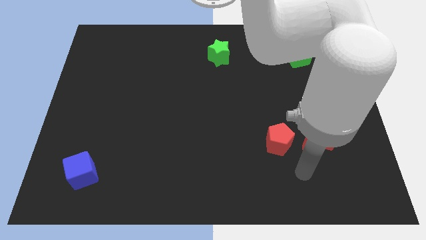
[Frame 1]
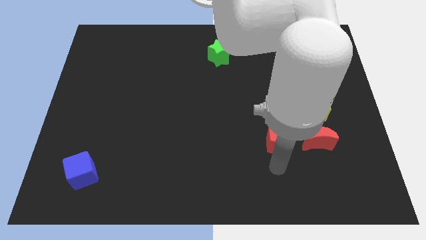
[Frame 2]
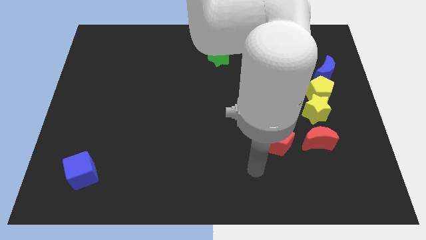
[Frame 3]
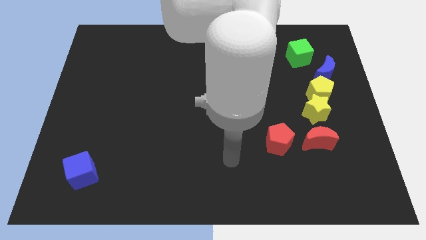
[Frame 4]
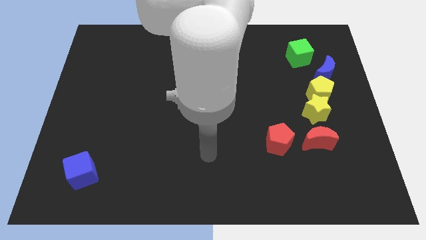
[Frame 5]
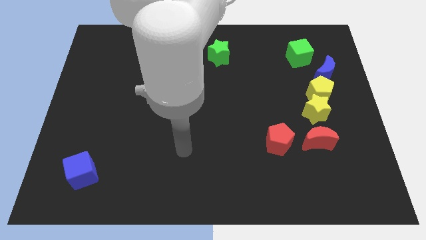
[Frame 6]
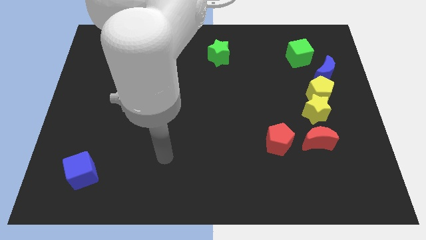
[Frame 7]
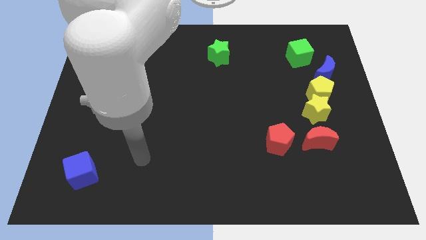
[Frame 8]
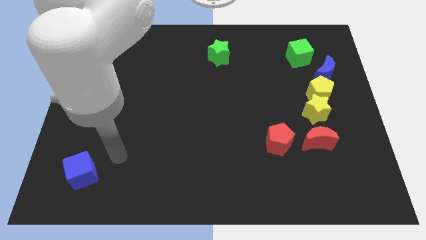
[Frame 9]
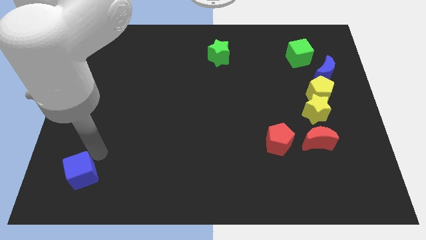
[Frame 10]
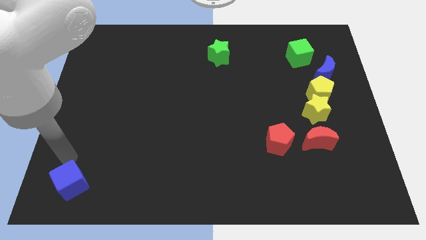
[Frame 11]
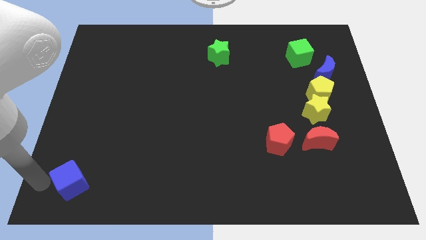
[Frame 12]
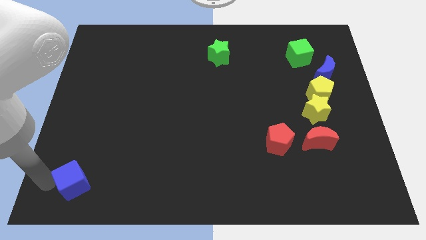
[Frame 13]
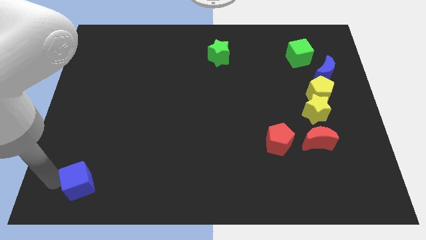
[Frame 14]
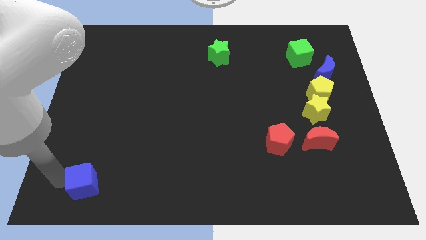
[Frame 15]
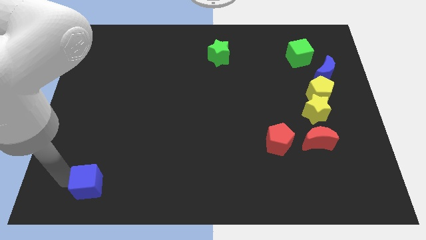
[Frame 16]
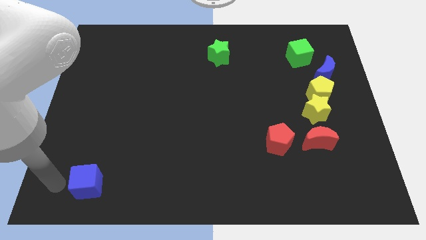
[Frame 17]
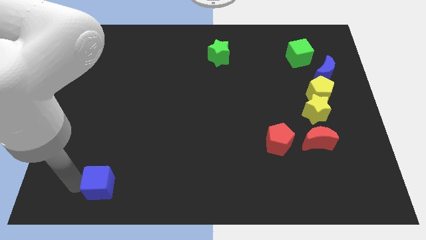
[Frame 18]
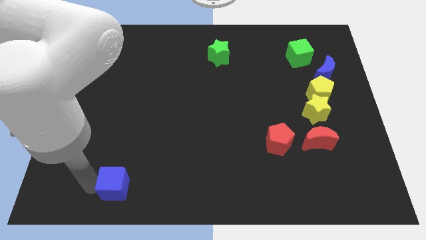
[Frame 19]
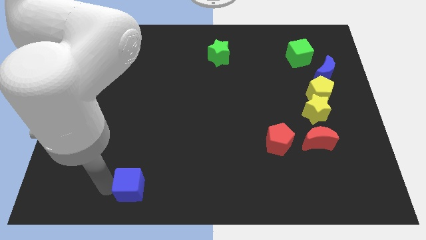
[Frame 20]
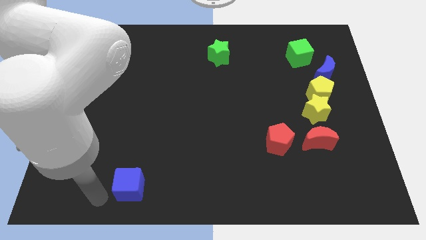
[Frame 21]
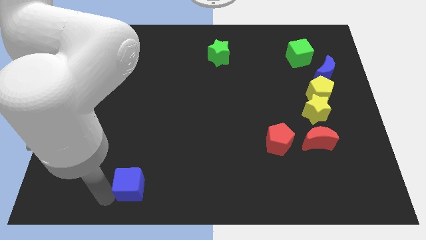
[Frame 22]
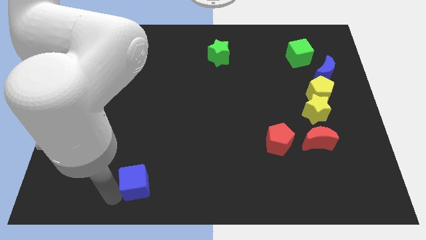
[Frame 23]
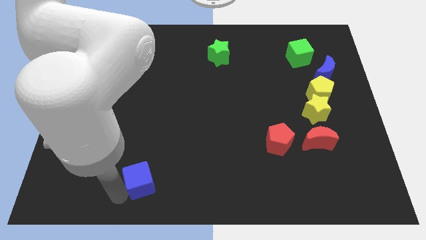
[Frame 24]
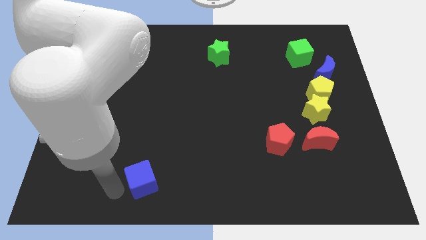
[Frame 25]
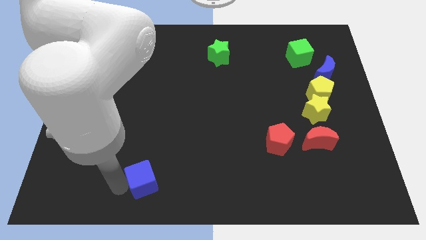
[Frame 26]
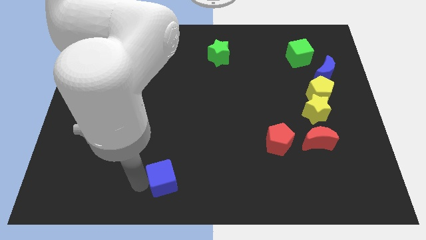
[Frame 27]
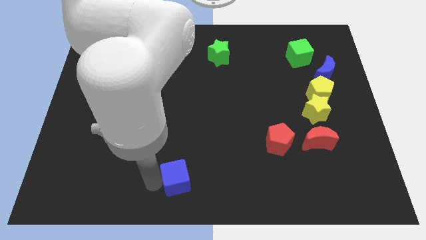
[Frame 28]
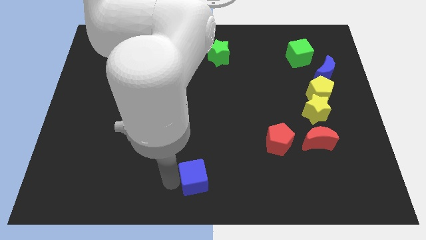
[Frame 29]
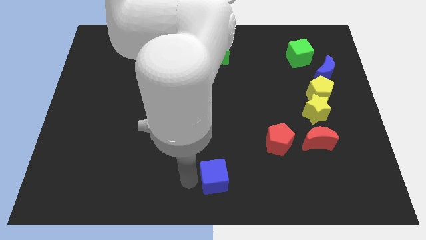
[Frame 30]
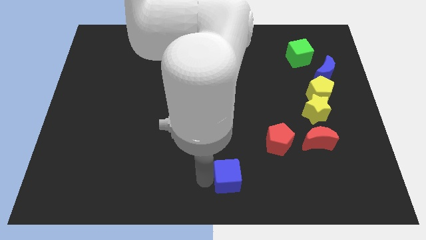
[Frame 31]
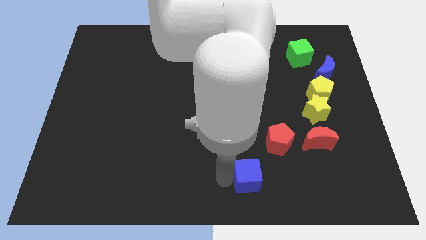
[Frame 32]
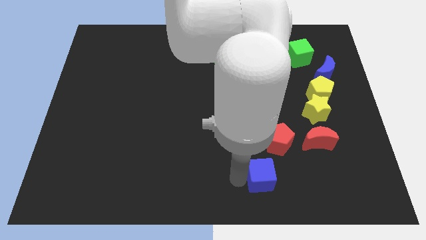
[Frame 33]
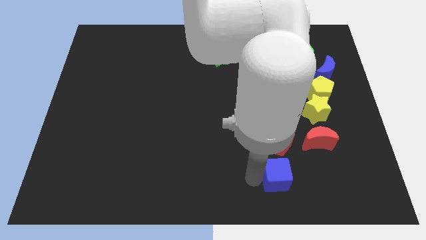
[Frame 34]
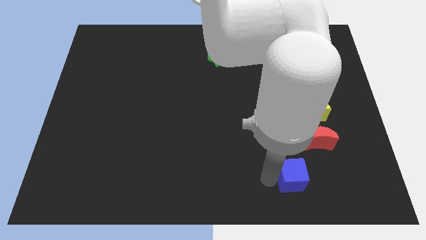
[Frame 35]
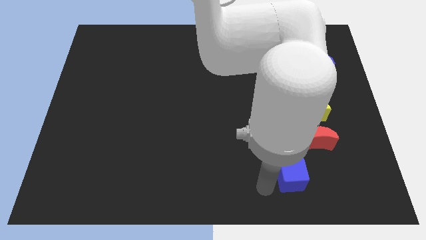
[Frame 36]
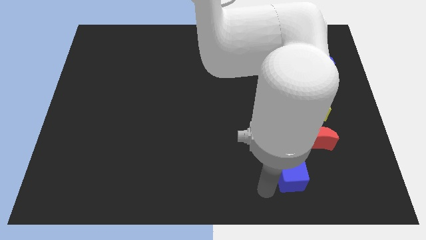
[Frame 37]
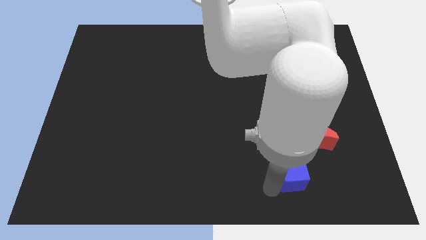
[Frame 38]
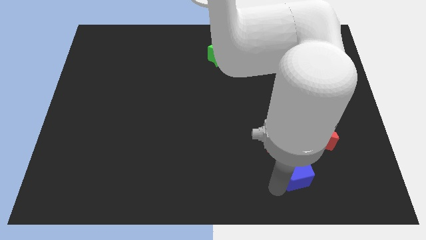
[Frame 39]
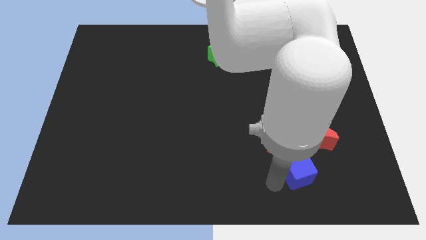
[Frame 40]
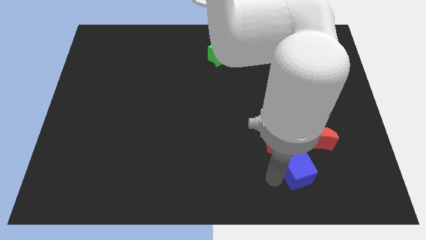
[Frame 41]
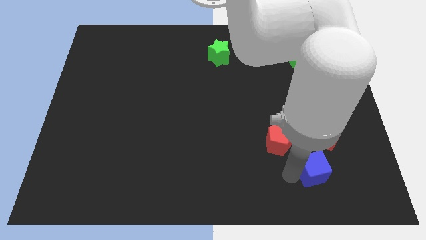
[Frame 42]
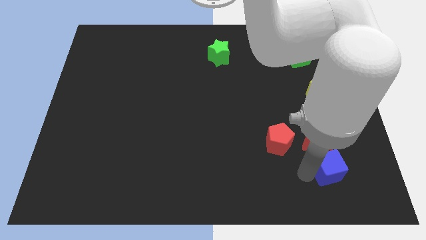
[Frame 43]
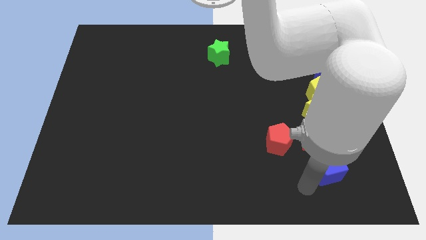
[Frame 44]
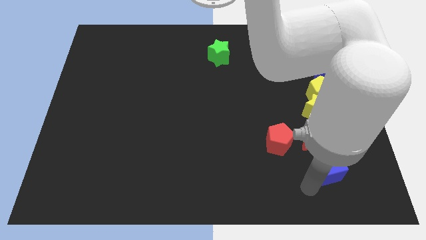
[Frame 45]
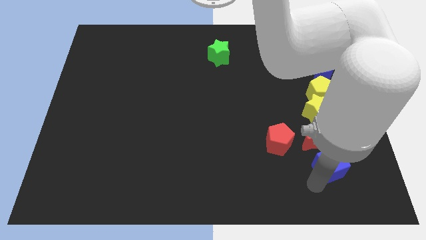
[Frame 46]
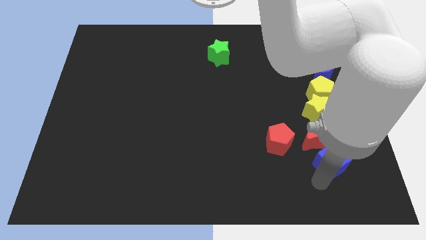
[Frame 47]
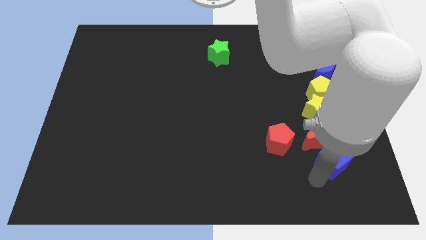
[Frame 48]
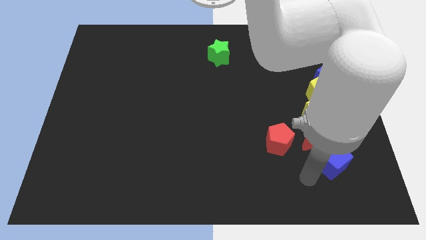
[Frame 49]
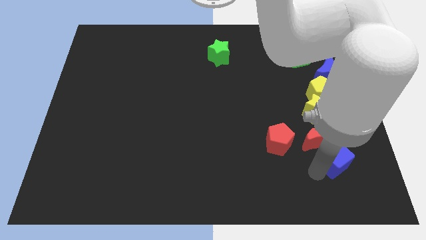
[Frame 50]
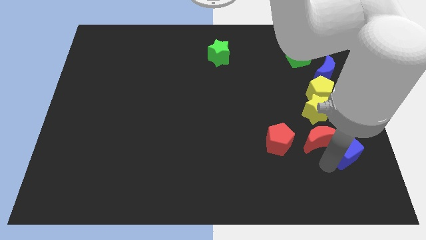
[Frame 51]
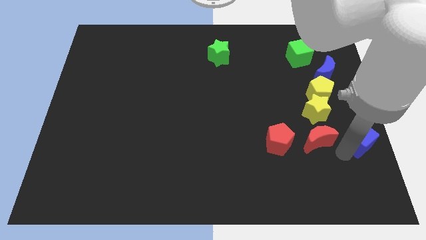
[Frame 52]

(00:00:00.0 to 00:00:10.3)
push the blue cube to the right side

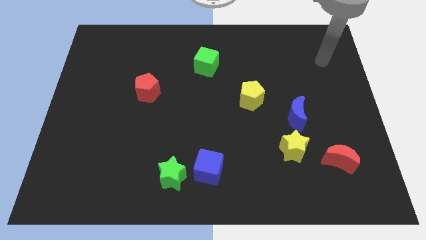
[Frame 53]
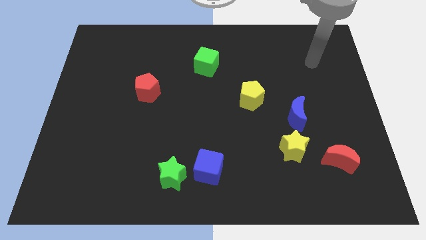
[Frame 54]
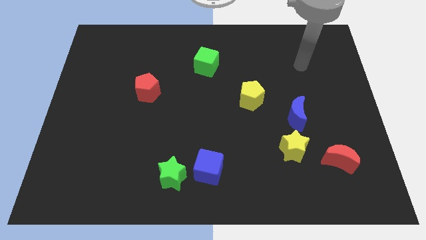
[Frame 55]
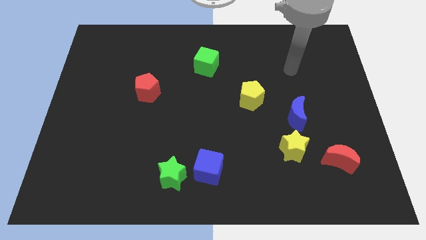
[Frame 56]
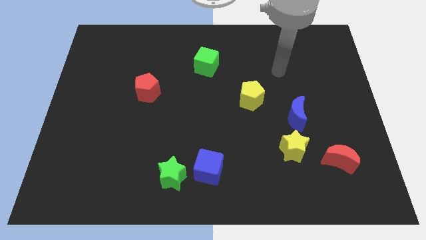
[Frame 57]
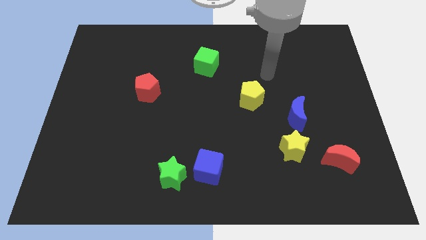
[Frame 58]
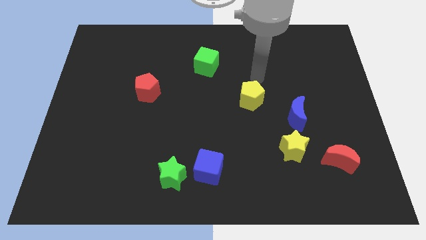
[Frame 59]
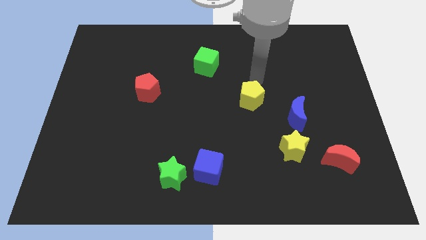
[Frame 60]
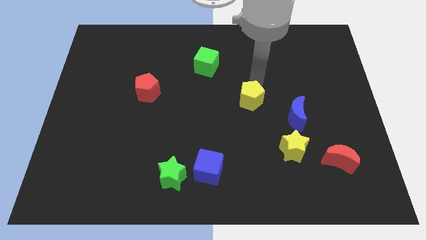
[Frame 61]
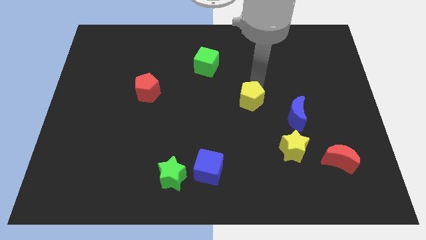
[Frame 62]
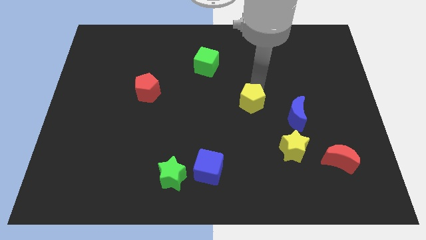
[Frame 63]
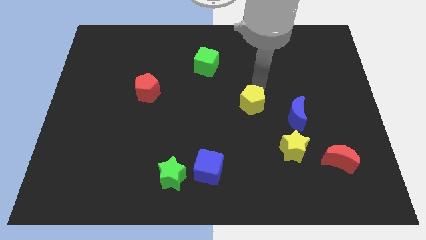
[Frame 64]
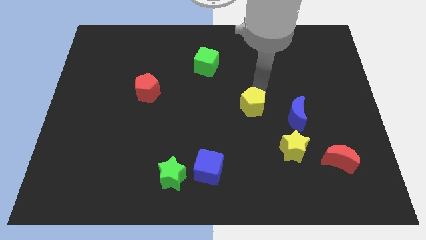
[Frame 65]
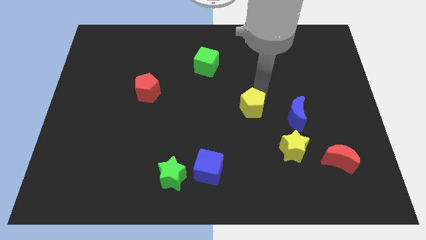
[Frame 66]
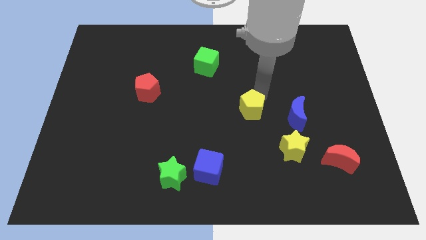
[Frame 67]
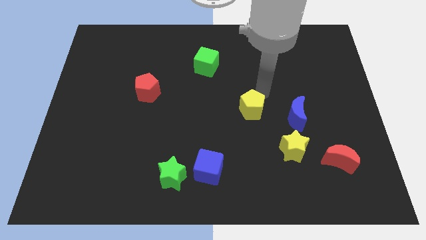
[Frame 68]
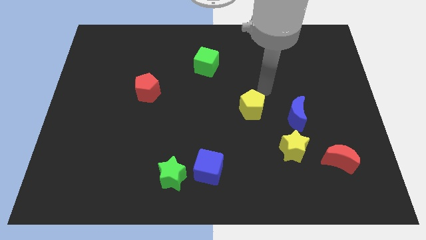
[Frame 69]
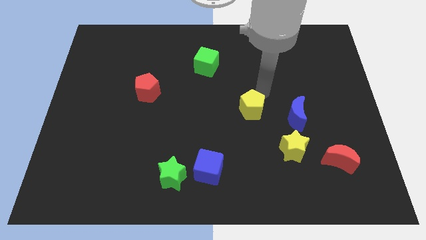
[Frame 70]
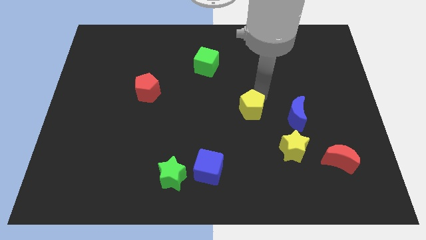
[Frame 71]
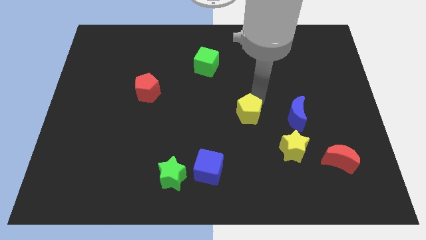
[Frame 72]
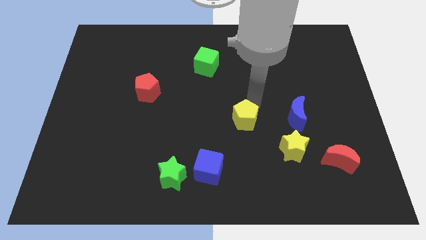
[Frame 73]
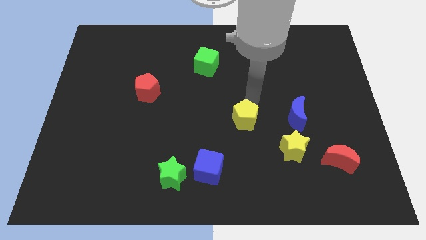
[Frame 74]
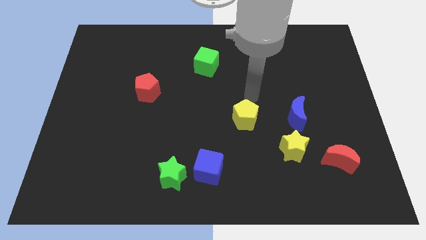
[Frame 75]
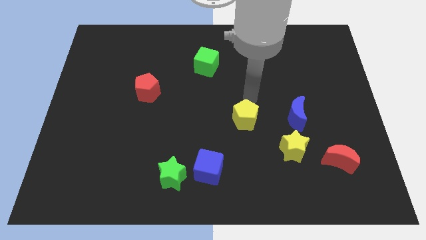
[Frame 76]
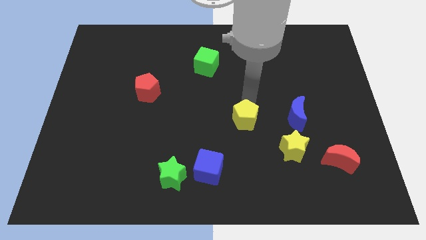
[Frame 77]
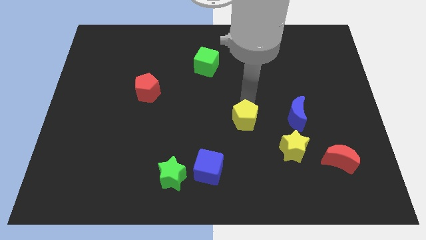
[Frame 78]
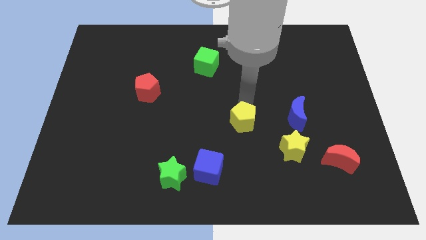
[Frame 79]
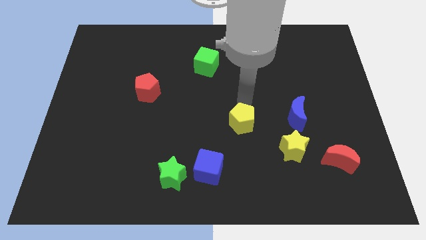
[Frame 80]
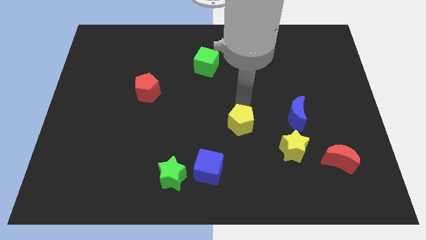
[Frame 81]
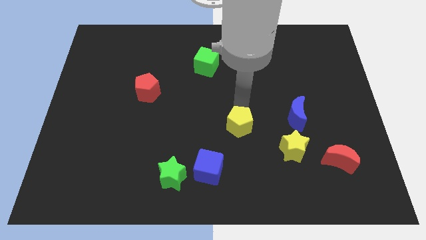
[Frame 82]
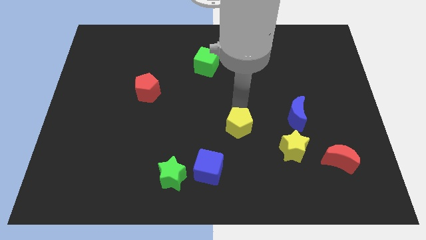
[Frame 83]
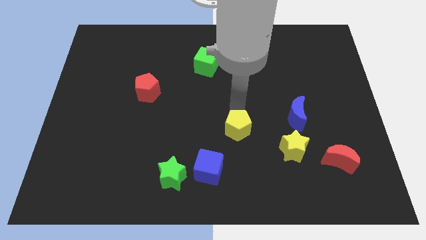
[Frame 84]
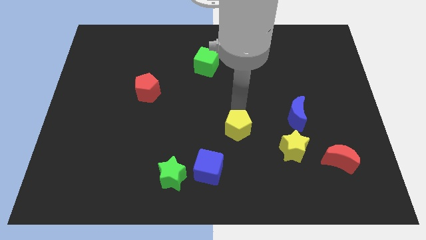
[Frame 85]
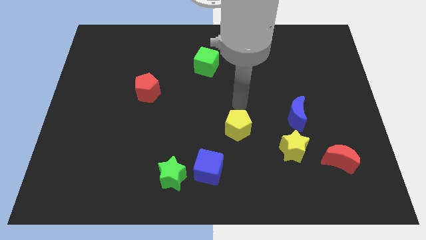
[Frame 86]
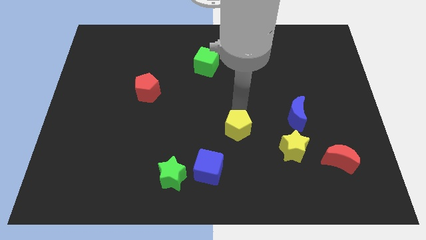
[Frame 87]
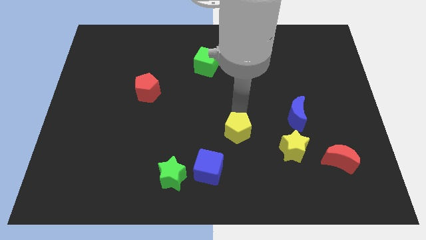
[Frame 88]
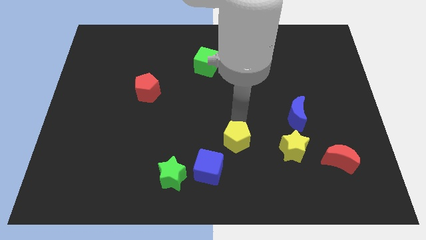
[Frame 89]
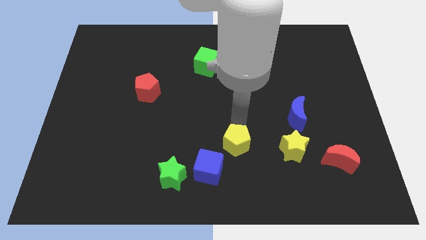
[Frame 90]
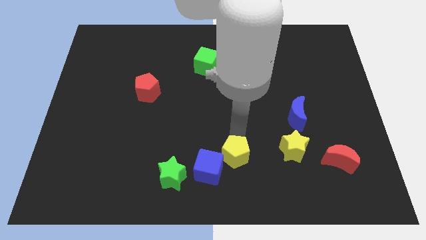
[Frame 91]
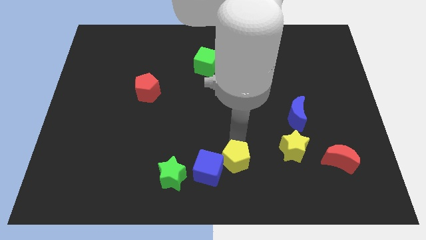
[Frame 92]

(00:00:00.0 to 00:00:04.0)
put the yellow pentagon to the bottom side
